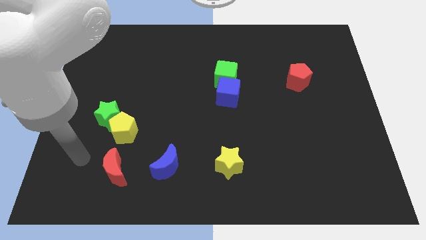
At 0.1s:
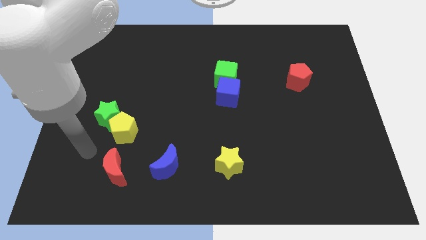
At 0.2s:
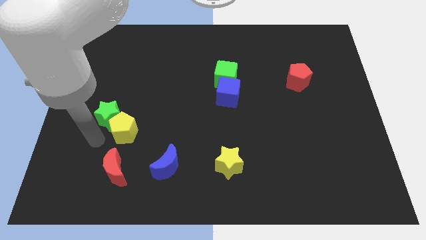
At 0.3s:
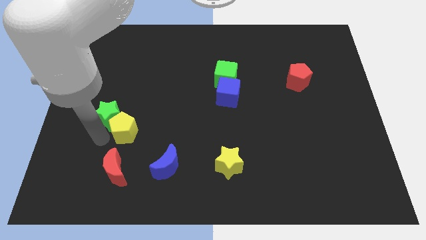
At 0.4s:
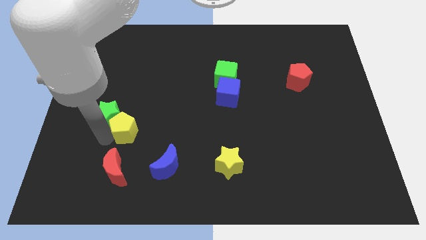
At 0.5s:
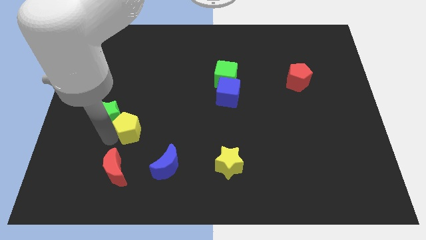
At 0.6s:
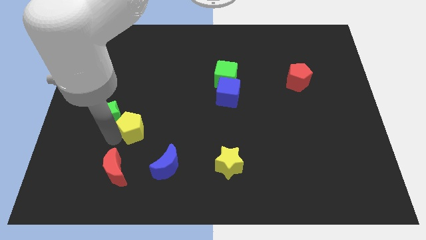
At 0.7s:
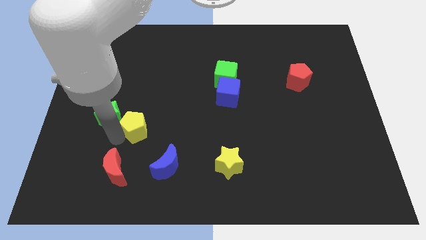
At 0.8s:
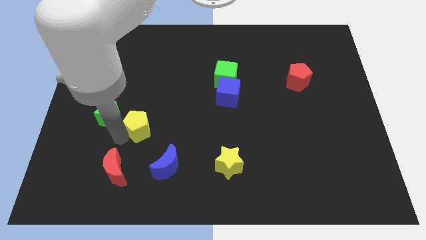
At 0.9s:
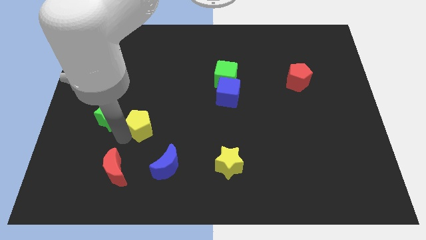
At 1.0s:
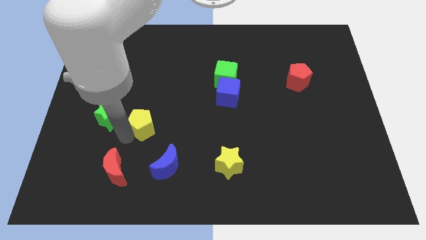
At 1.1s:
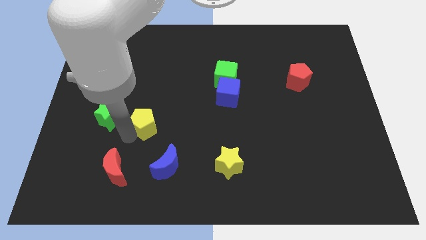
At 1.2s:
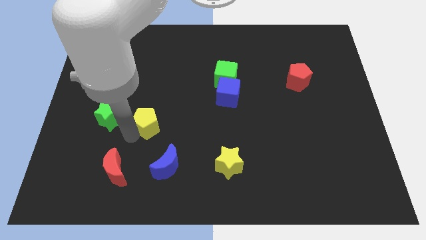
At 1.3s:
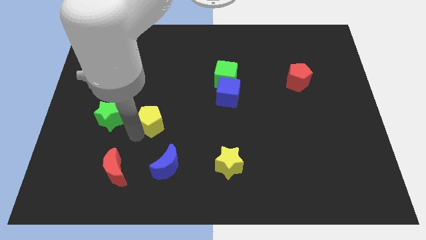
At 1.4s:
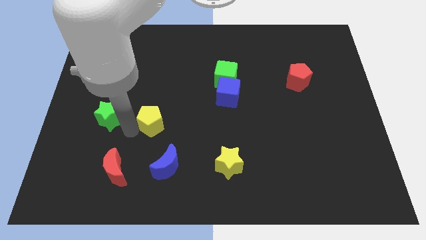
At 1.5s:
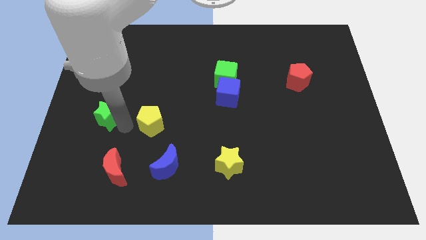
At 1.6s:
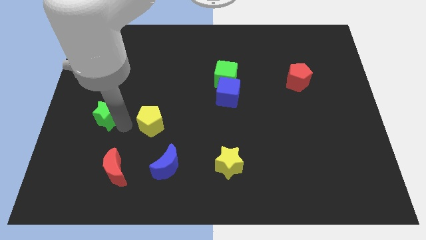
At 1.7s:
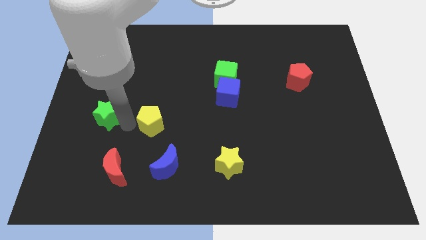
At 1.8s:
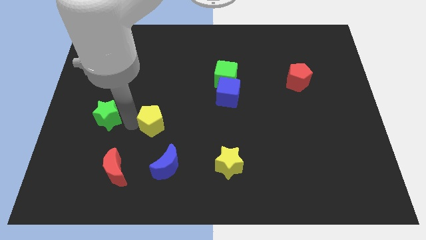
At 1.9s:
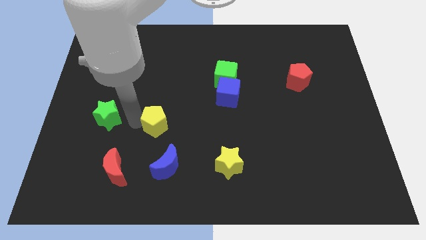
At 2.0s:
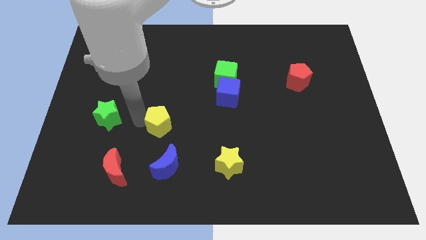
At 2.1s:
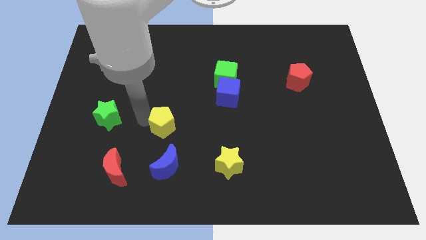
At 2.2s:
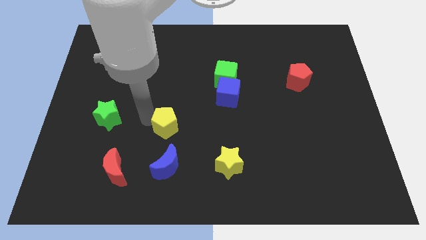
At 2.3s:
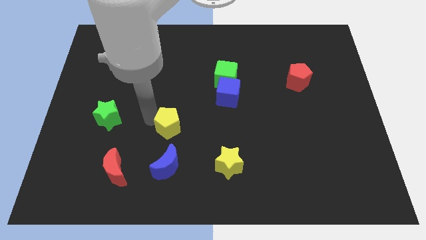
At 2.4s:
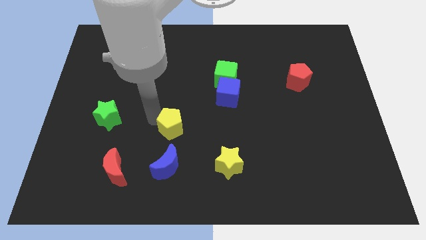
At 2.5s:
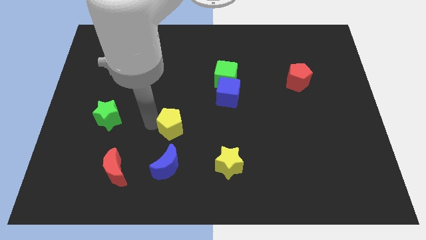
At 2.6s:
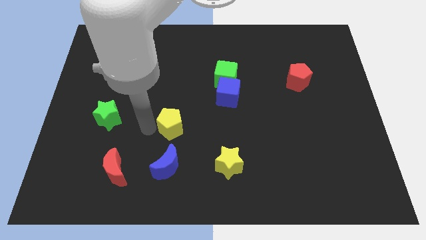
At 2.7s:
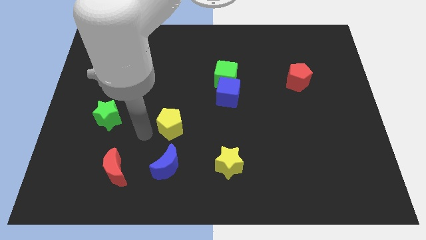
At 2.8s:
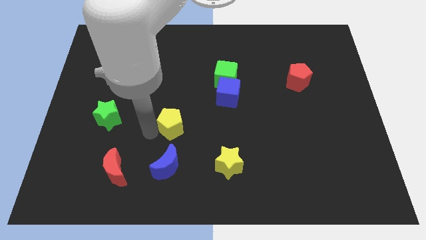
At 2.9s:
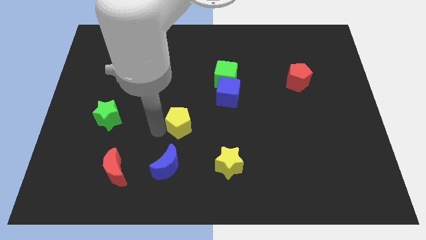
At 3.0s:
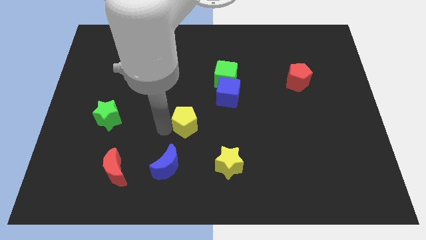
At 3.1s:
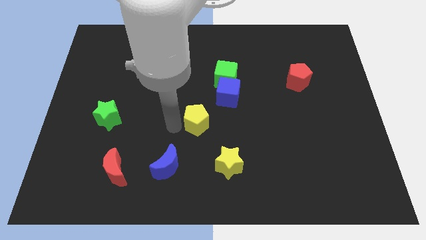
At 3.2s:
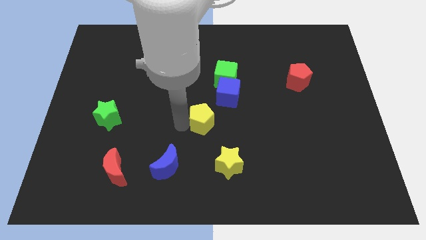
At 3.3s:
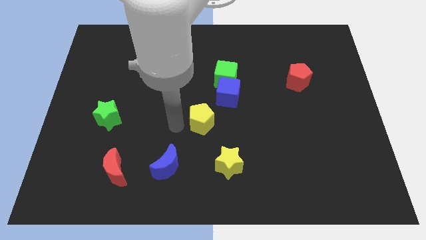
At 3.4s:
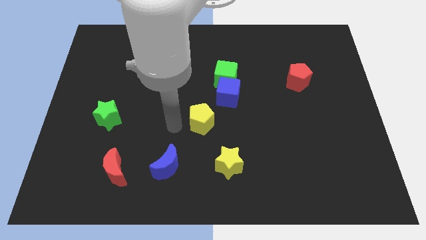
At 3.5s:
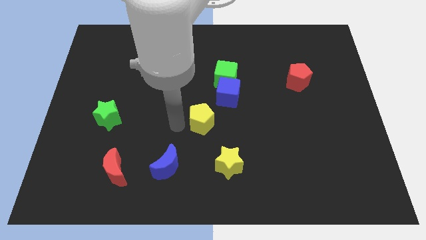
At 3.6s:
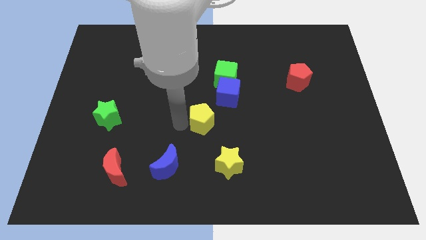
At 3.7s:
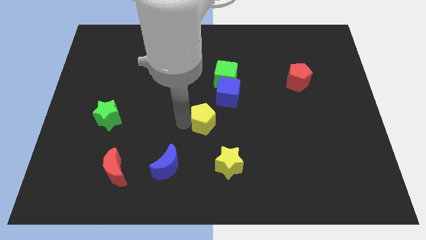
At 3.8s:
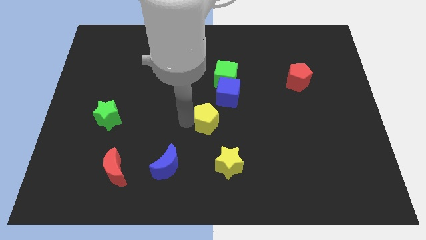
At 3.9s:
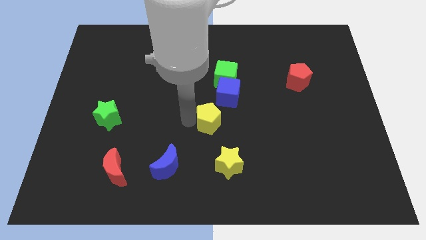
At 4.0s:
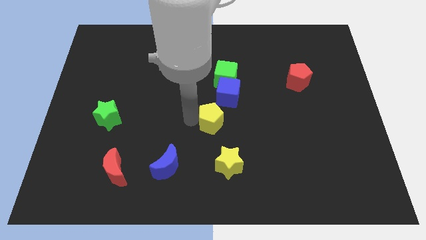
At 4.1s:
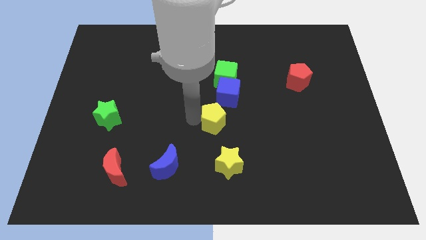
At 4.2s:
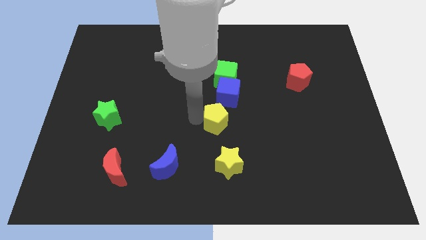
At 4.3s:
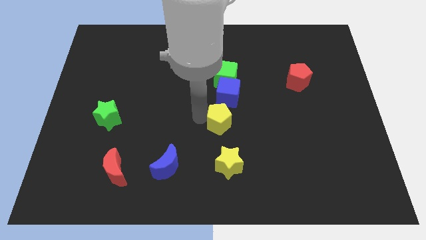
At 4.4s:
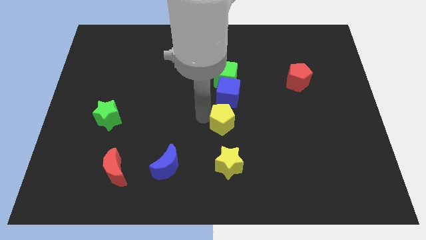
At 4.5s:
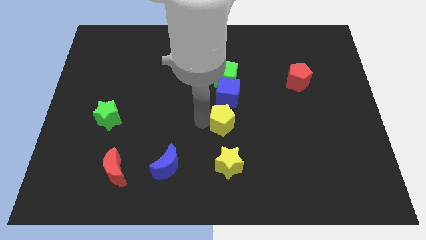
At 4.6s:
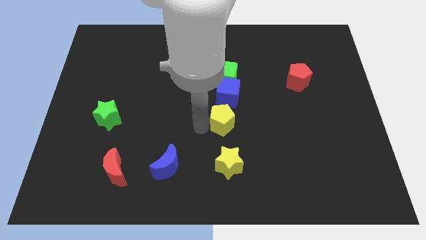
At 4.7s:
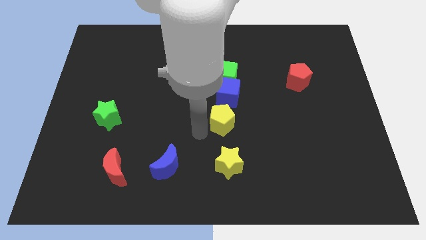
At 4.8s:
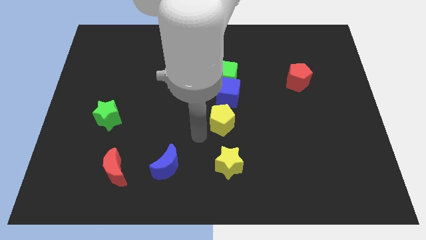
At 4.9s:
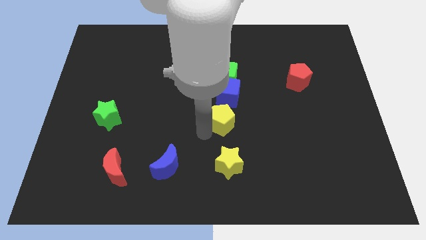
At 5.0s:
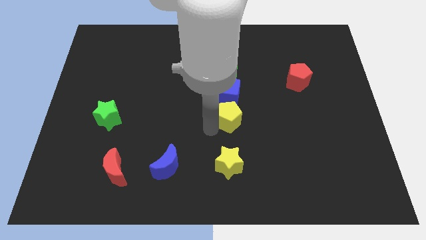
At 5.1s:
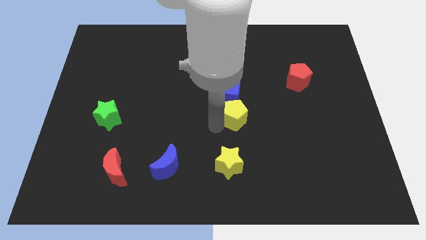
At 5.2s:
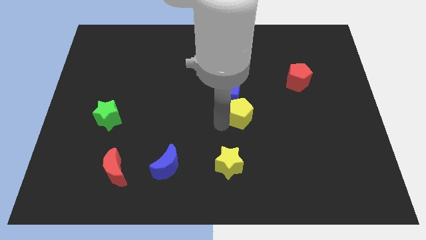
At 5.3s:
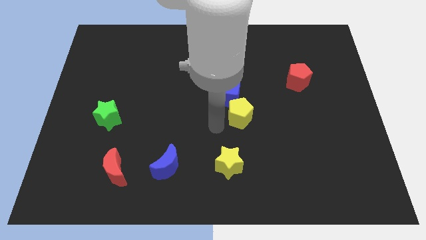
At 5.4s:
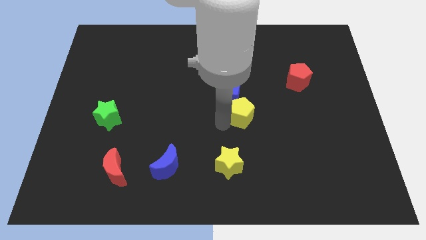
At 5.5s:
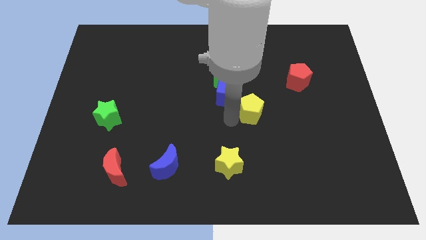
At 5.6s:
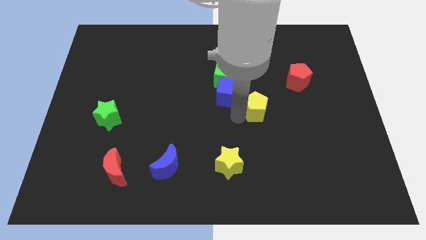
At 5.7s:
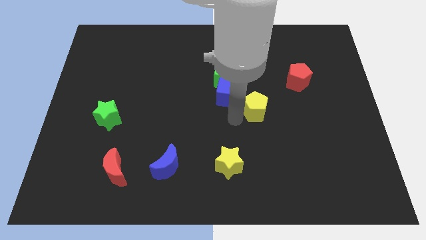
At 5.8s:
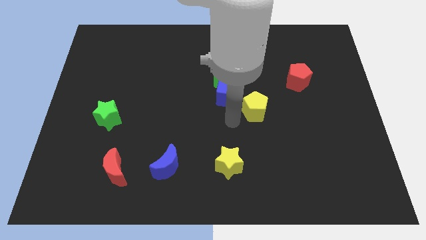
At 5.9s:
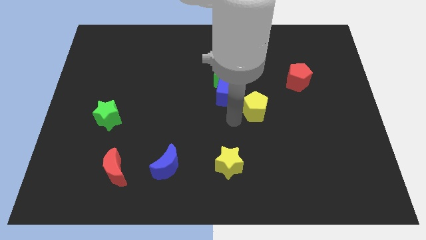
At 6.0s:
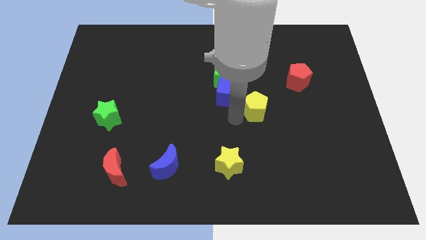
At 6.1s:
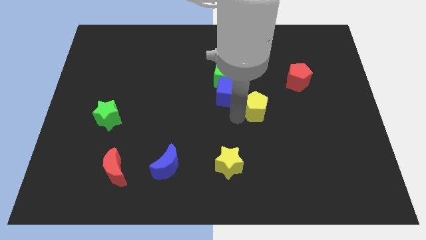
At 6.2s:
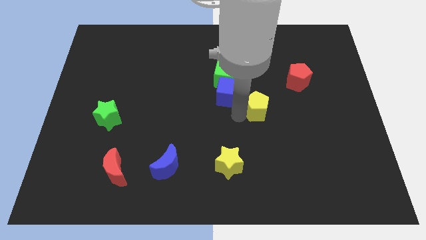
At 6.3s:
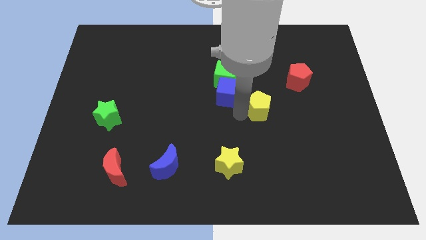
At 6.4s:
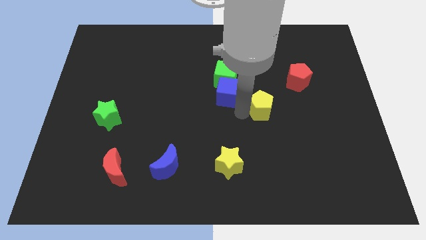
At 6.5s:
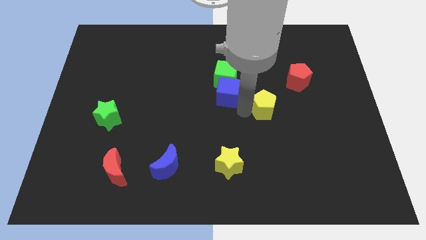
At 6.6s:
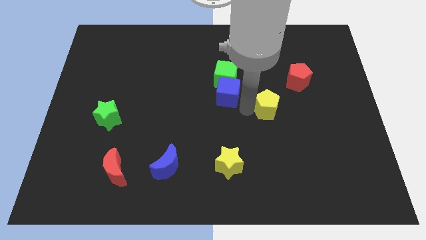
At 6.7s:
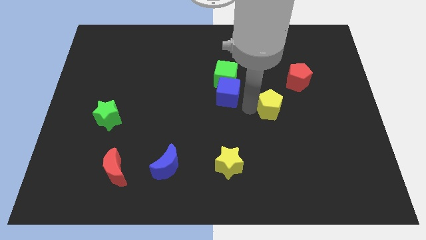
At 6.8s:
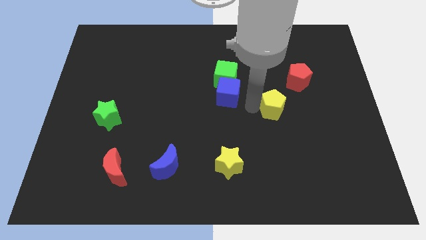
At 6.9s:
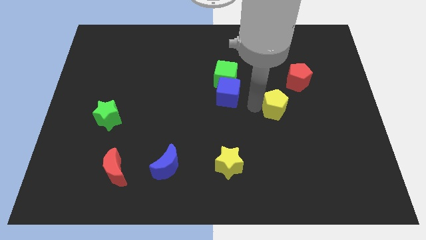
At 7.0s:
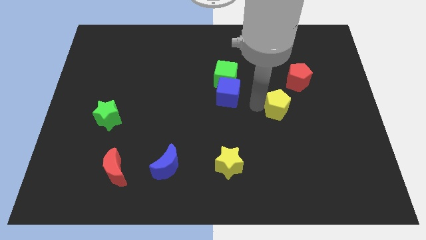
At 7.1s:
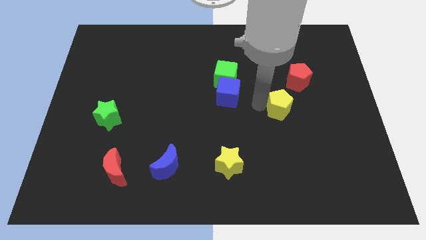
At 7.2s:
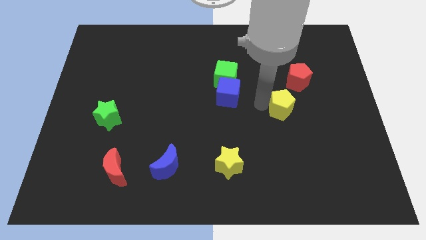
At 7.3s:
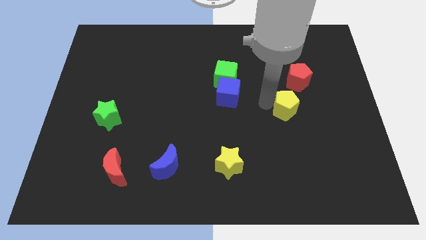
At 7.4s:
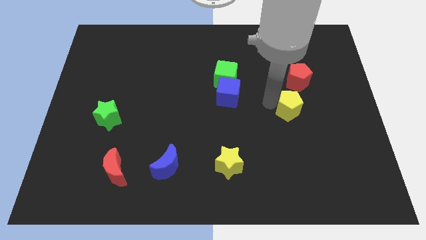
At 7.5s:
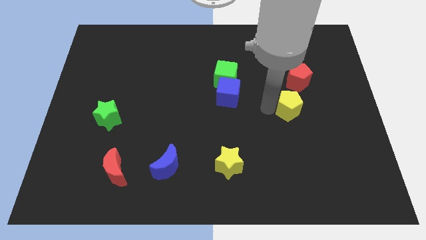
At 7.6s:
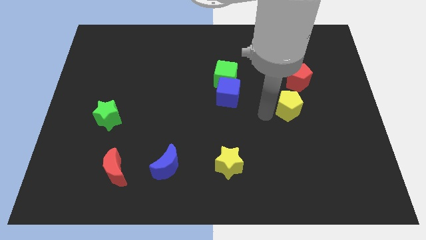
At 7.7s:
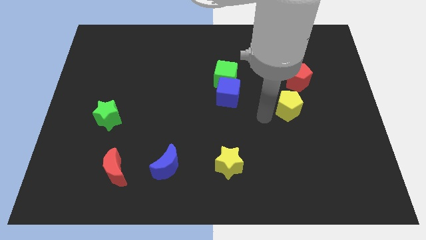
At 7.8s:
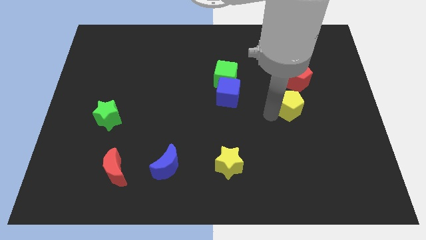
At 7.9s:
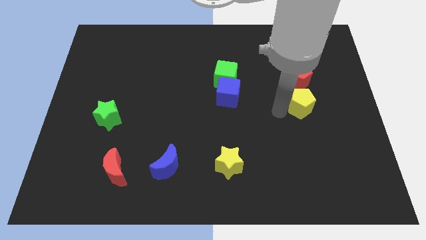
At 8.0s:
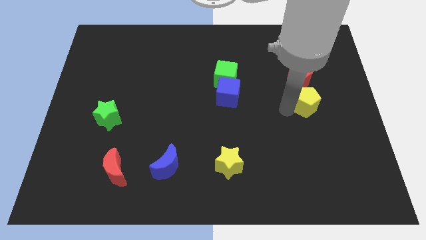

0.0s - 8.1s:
move the yellow pentagon to the bottom right side of the red pentagon
